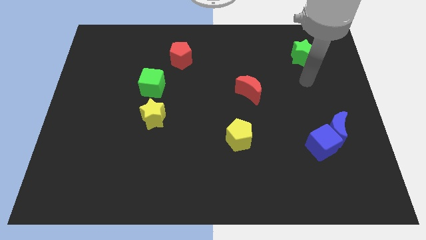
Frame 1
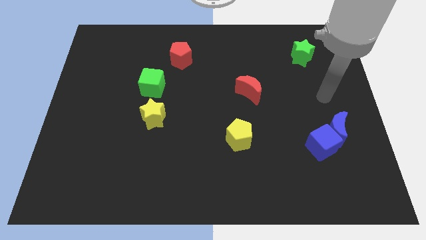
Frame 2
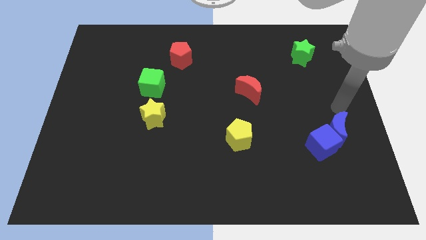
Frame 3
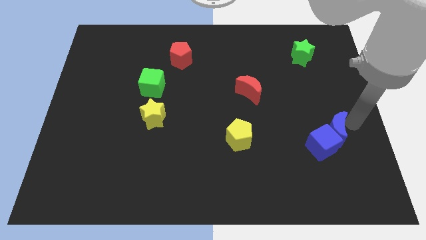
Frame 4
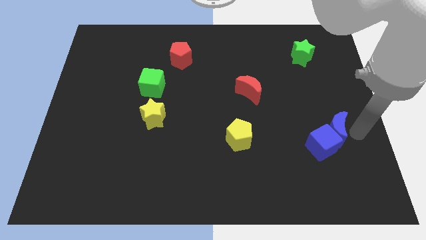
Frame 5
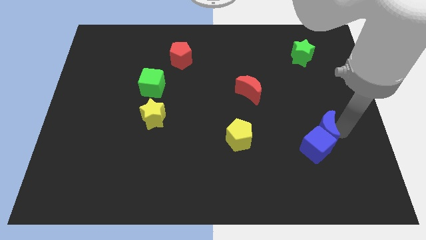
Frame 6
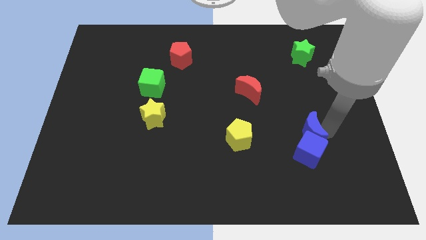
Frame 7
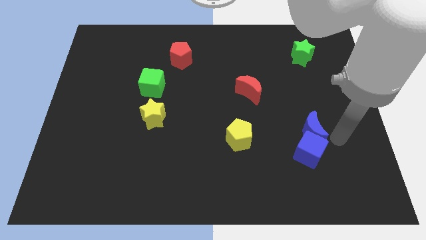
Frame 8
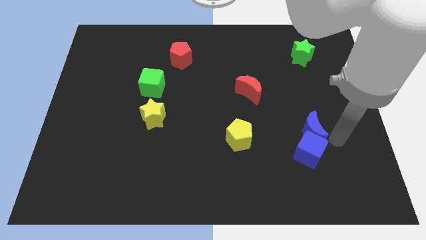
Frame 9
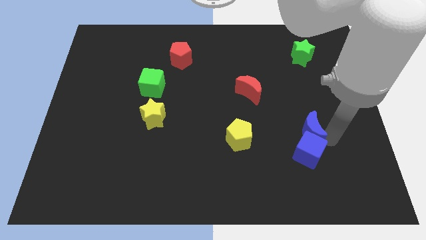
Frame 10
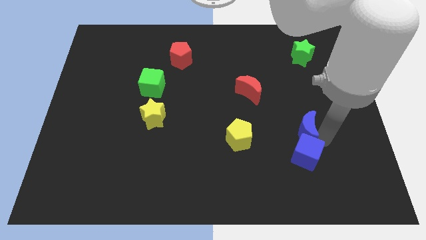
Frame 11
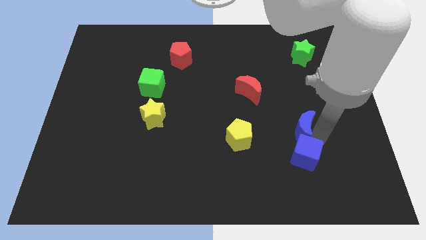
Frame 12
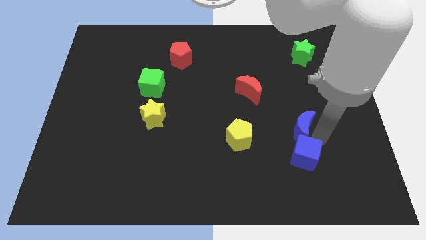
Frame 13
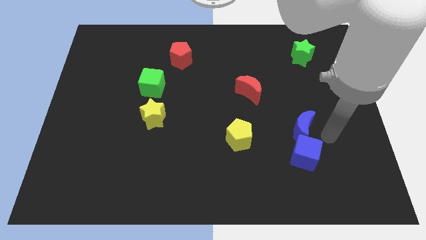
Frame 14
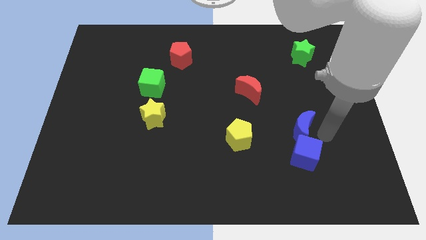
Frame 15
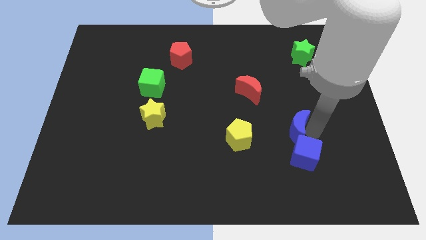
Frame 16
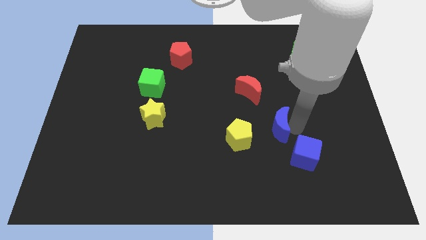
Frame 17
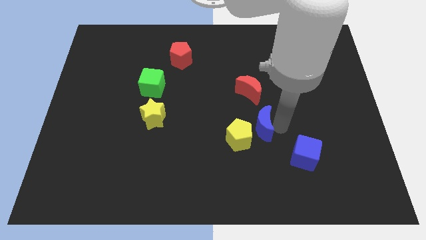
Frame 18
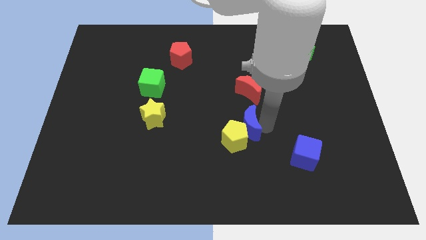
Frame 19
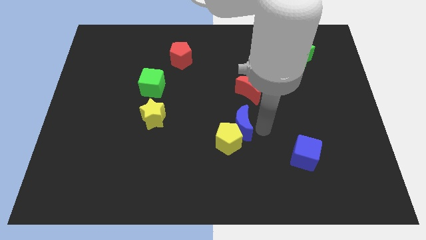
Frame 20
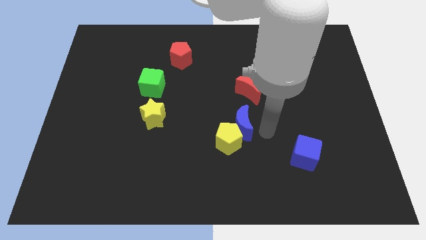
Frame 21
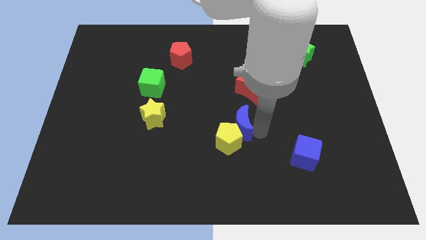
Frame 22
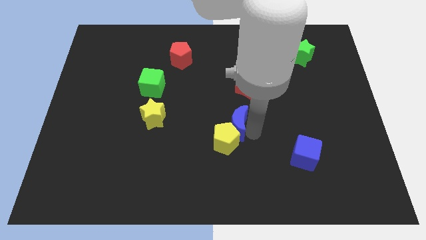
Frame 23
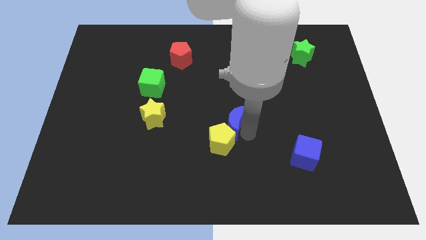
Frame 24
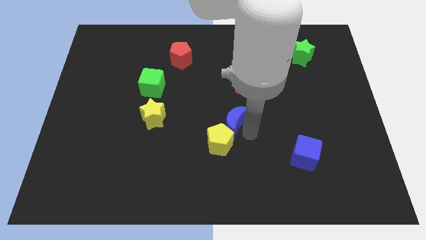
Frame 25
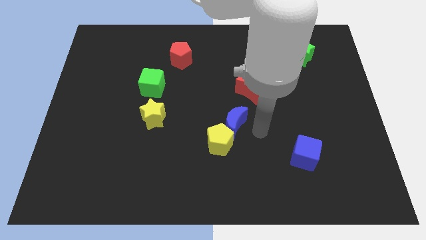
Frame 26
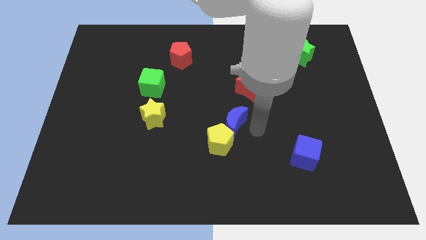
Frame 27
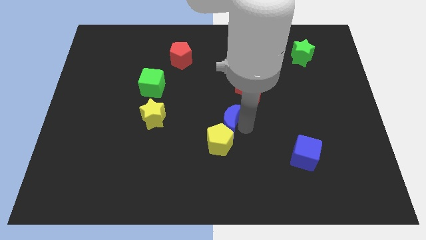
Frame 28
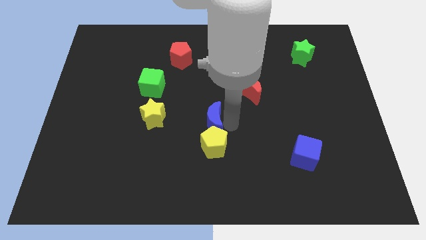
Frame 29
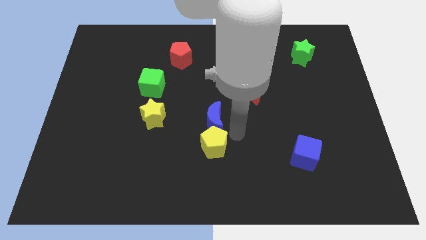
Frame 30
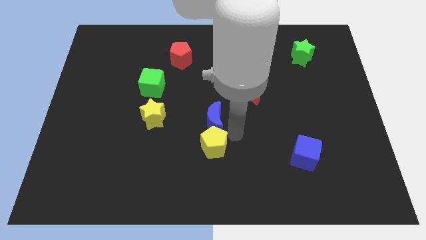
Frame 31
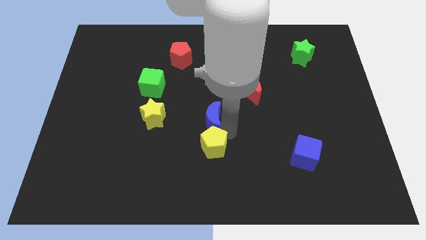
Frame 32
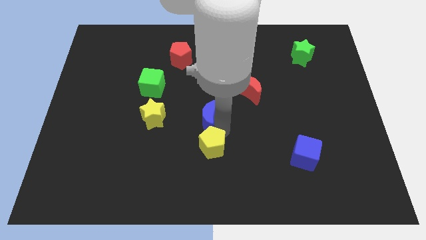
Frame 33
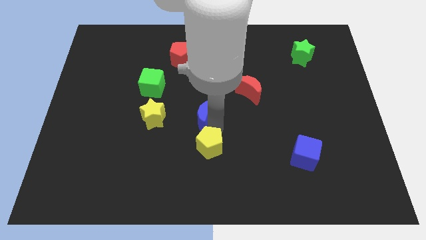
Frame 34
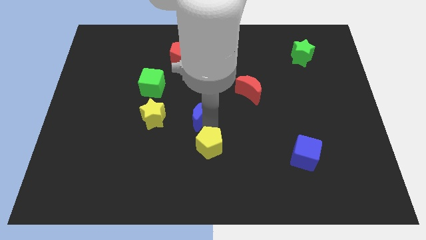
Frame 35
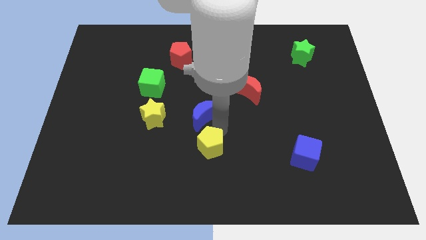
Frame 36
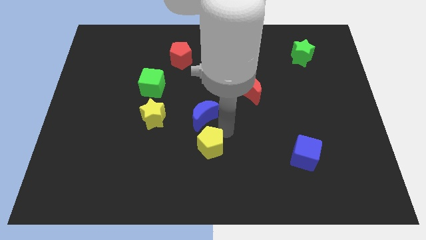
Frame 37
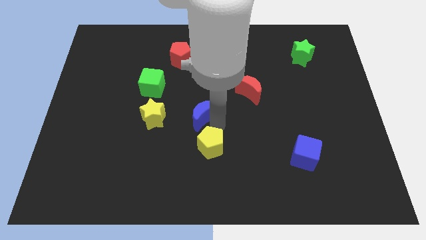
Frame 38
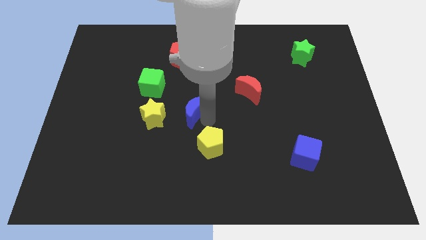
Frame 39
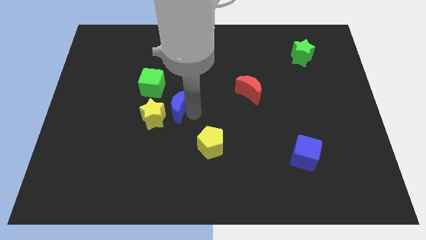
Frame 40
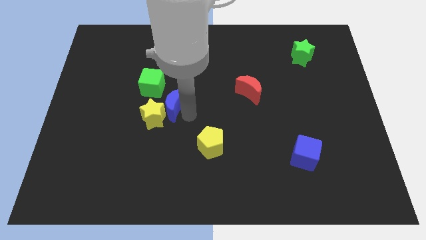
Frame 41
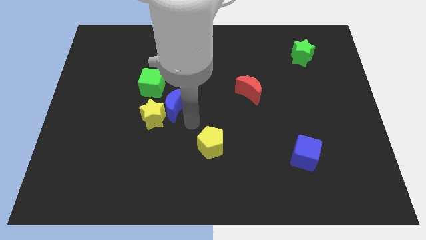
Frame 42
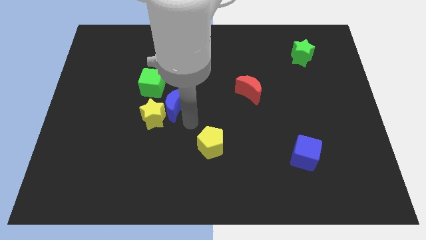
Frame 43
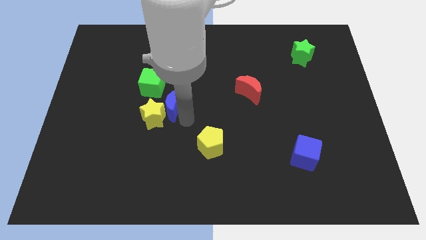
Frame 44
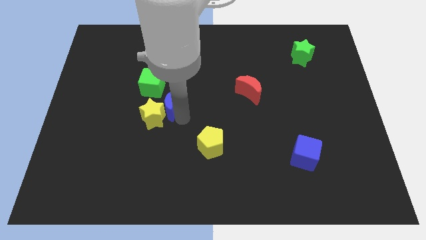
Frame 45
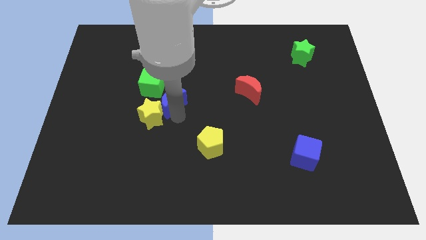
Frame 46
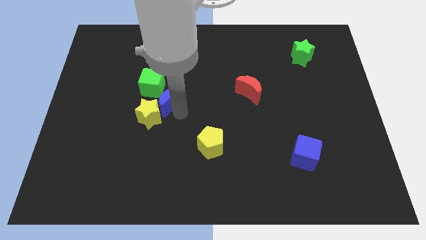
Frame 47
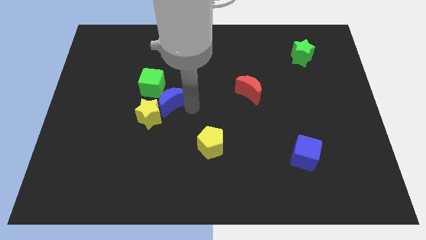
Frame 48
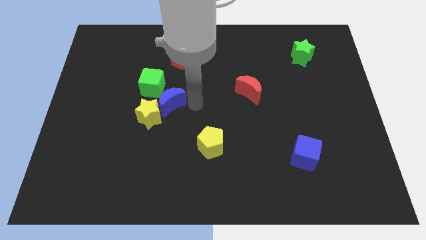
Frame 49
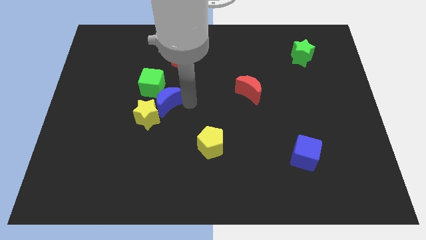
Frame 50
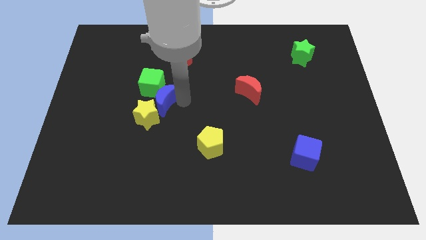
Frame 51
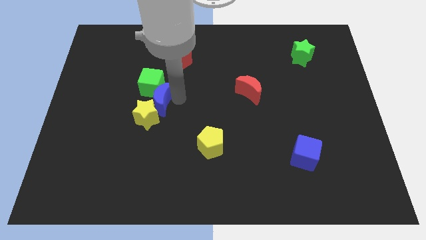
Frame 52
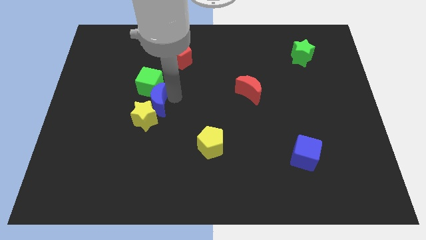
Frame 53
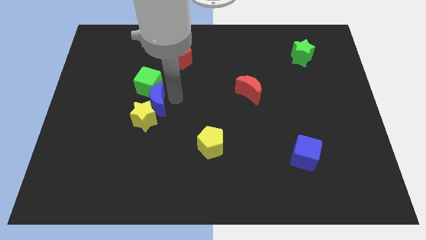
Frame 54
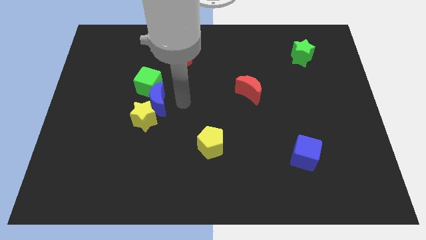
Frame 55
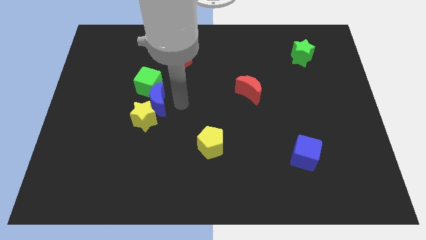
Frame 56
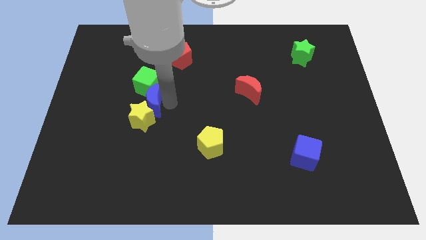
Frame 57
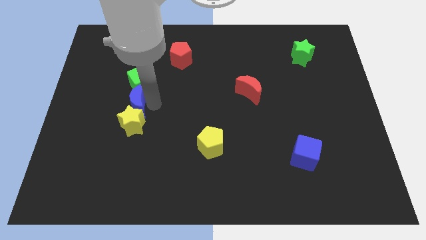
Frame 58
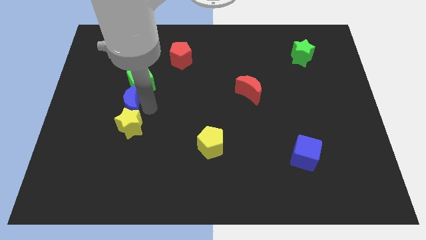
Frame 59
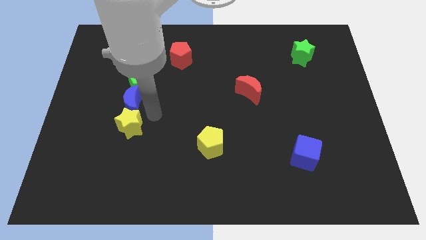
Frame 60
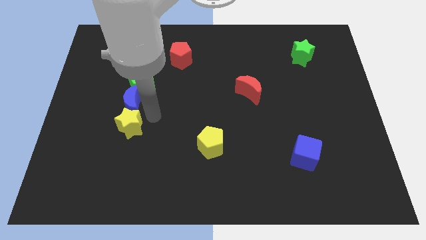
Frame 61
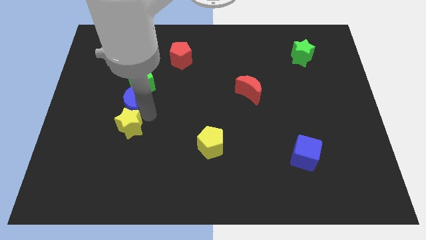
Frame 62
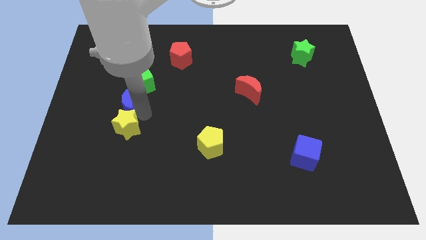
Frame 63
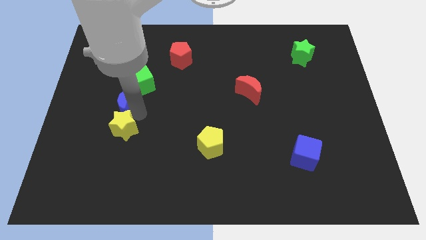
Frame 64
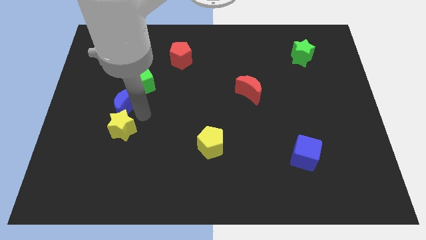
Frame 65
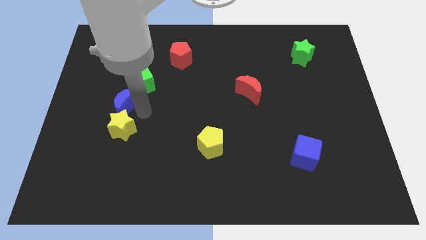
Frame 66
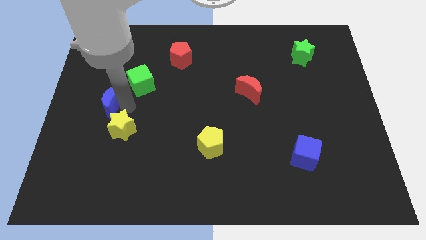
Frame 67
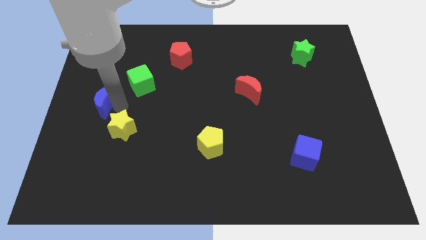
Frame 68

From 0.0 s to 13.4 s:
push the blue moon to the left side of the board
